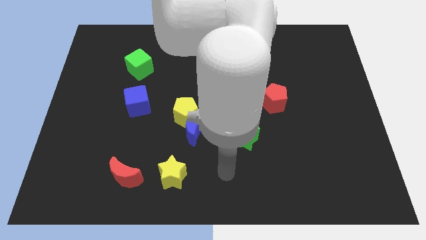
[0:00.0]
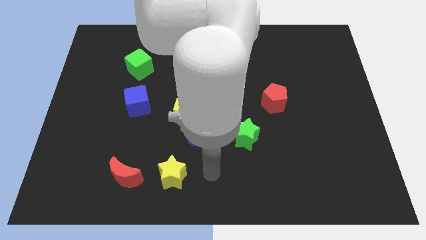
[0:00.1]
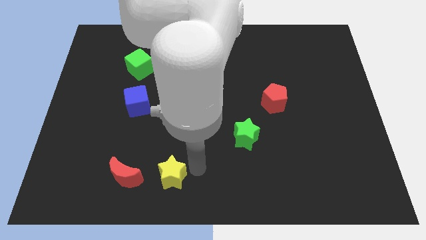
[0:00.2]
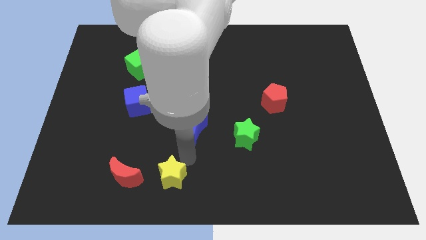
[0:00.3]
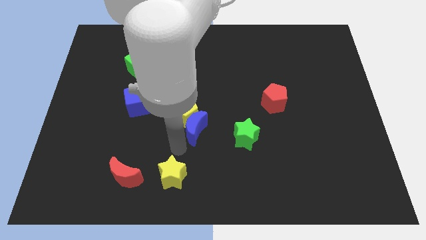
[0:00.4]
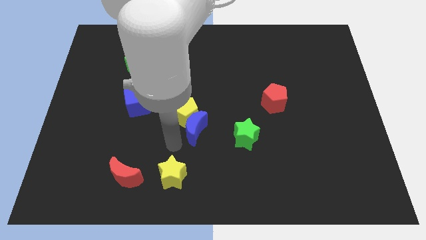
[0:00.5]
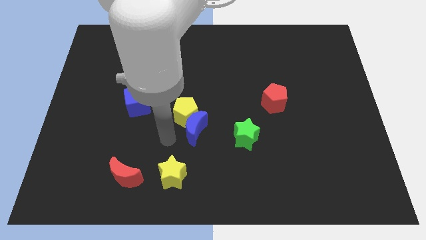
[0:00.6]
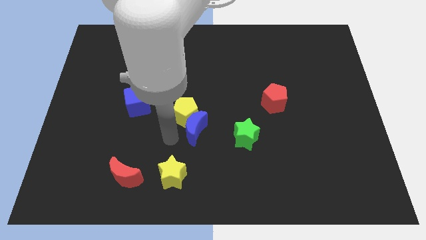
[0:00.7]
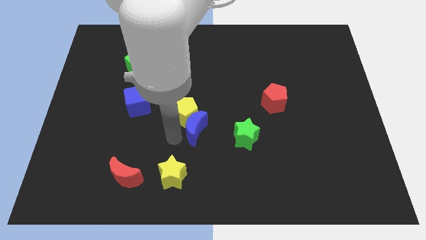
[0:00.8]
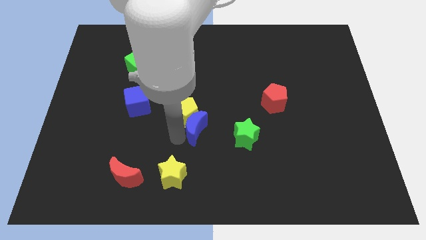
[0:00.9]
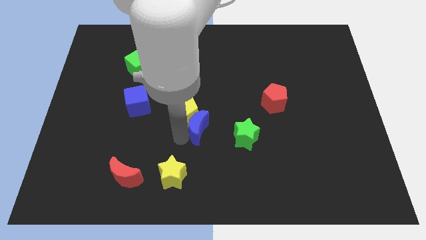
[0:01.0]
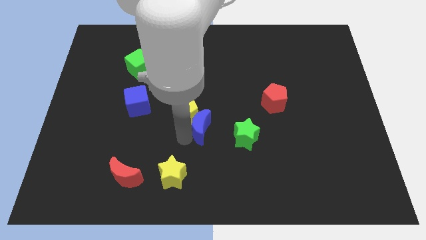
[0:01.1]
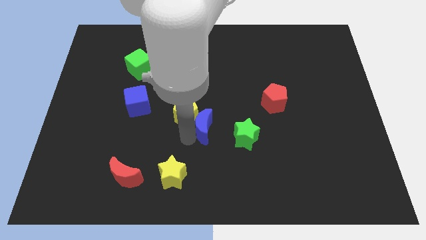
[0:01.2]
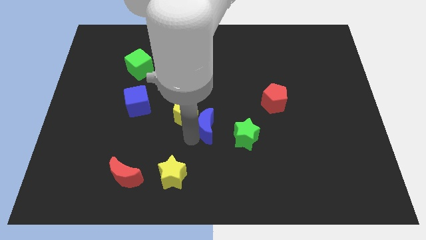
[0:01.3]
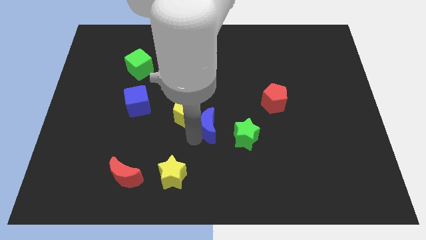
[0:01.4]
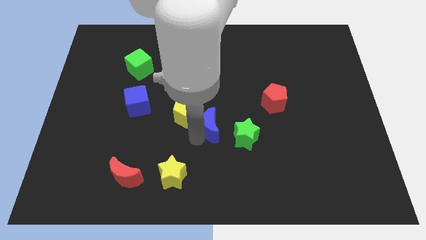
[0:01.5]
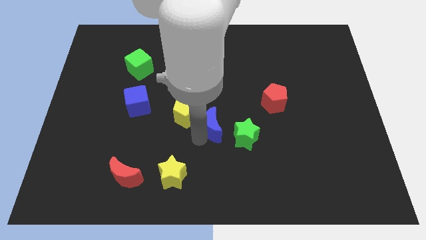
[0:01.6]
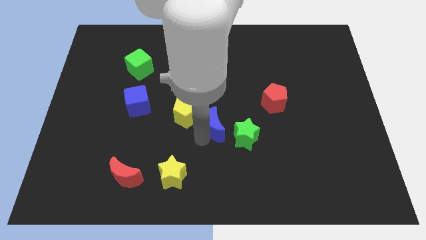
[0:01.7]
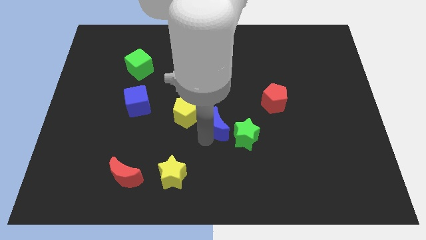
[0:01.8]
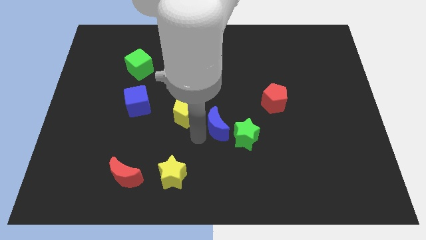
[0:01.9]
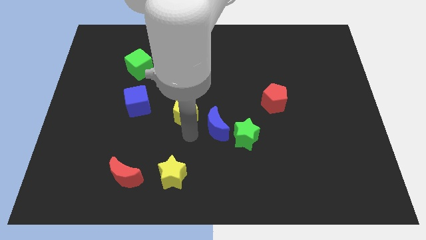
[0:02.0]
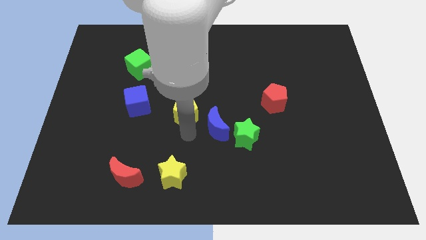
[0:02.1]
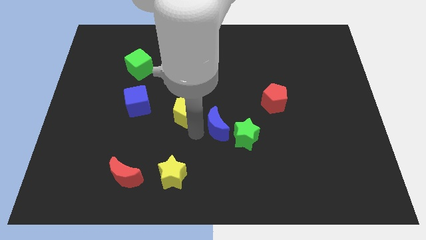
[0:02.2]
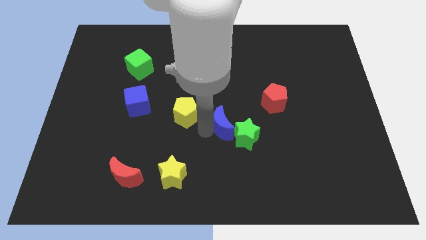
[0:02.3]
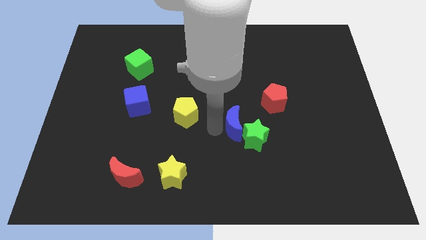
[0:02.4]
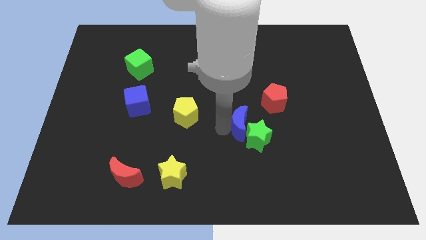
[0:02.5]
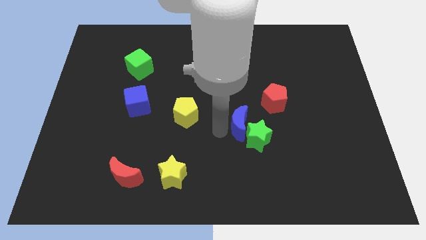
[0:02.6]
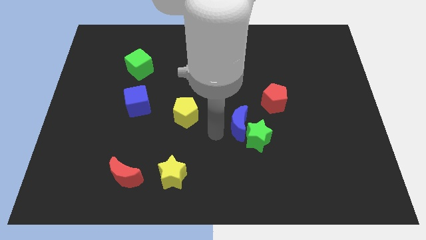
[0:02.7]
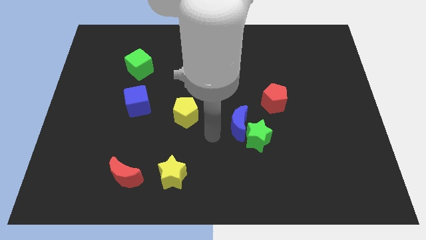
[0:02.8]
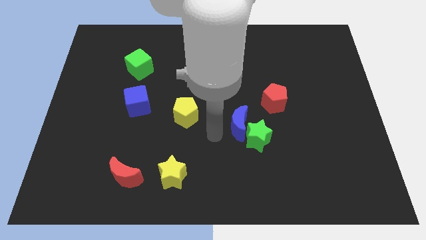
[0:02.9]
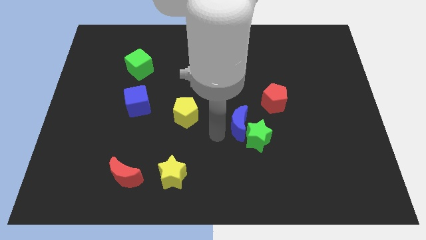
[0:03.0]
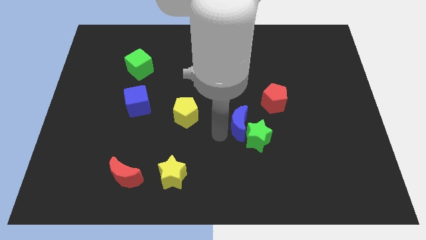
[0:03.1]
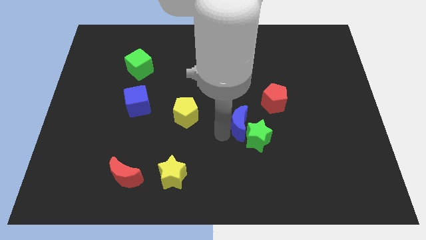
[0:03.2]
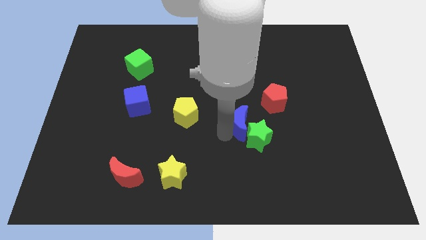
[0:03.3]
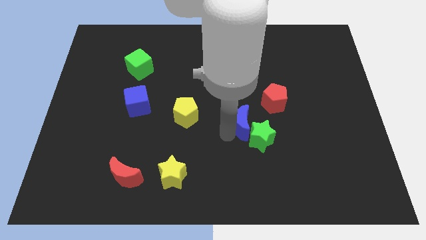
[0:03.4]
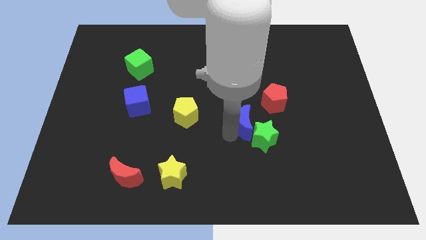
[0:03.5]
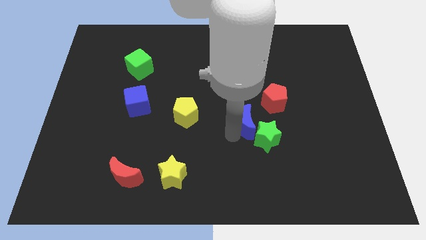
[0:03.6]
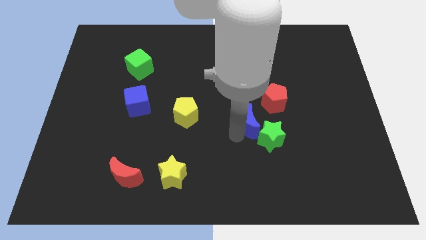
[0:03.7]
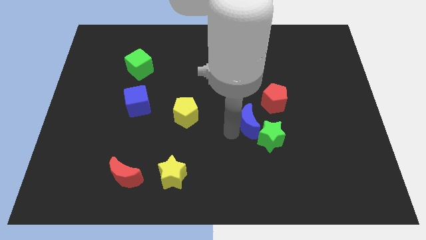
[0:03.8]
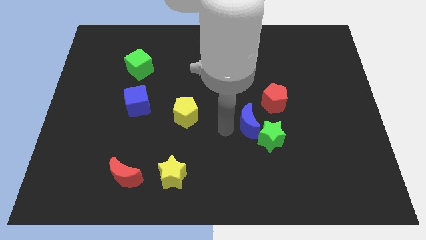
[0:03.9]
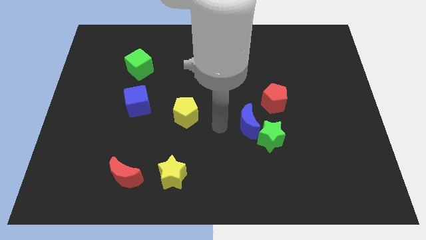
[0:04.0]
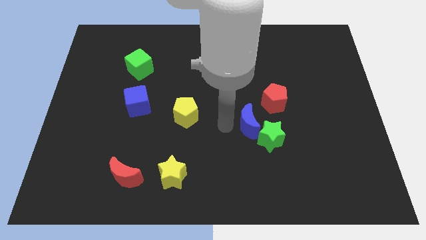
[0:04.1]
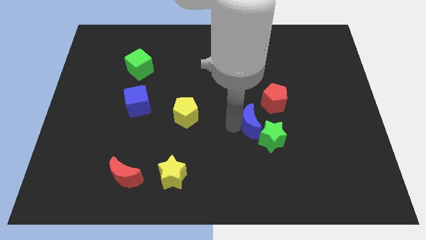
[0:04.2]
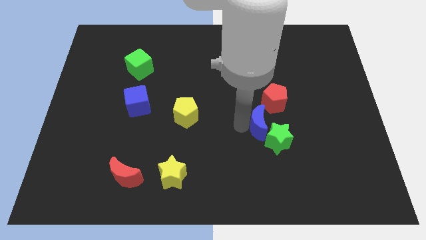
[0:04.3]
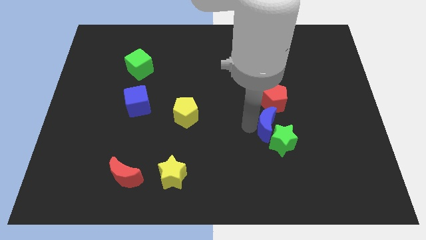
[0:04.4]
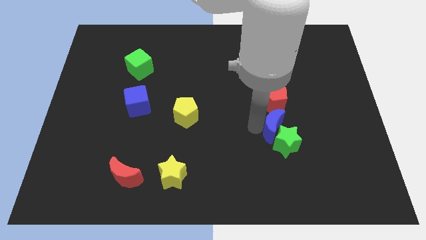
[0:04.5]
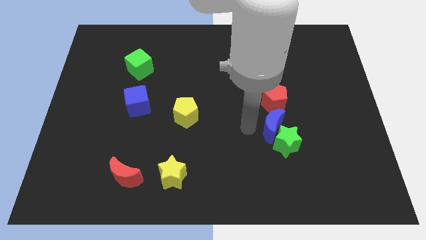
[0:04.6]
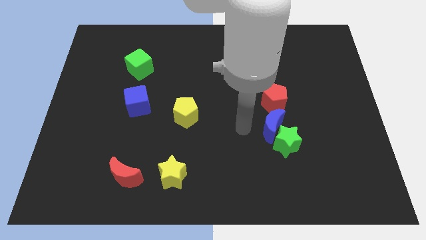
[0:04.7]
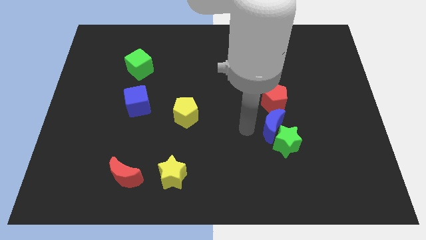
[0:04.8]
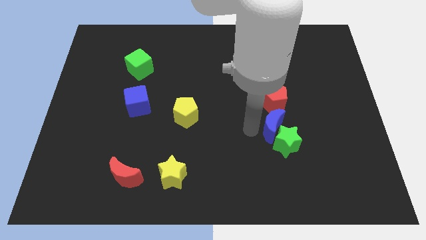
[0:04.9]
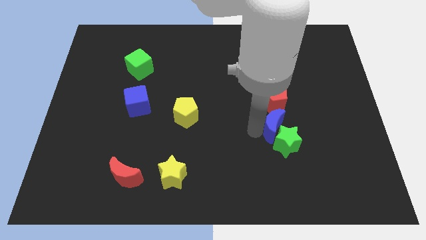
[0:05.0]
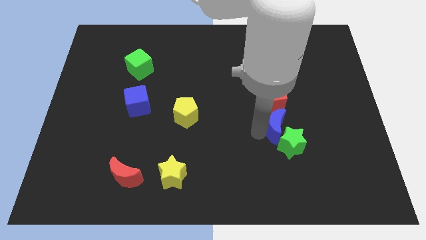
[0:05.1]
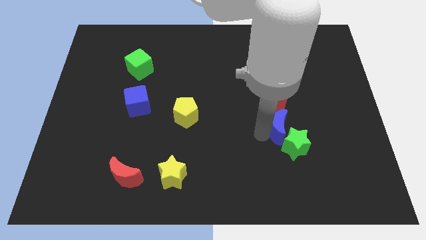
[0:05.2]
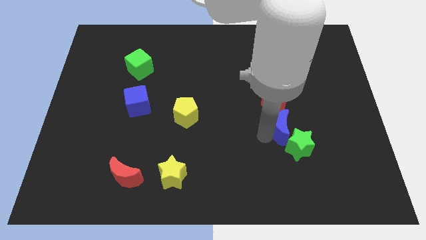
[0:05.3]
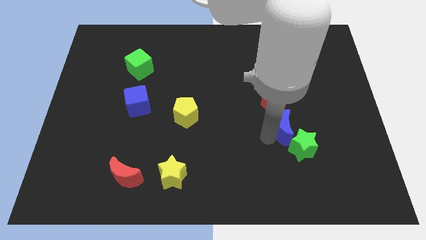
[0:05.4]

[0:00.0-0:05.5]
slide the blue moon to the right

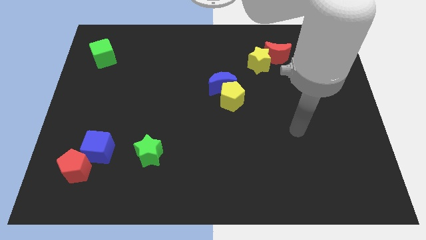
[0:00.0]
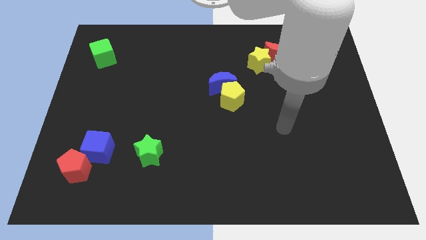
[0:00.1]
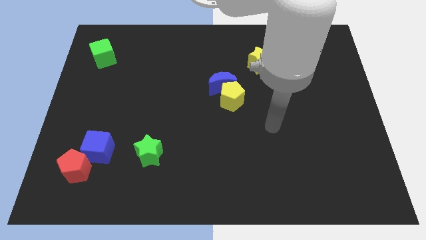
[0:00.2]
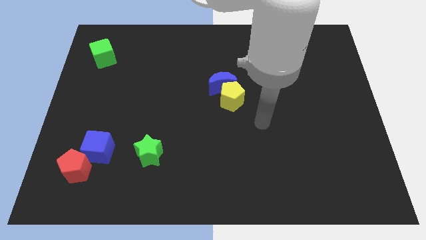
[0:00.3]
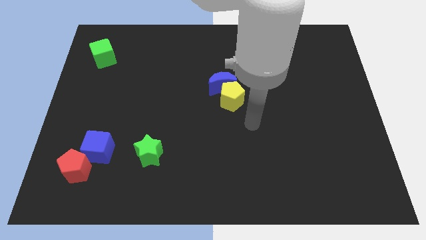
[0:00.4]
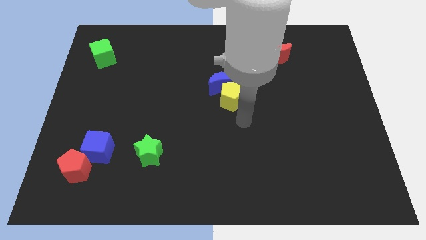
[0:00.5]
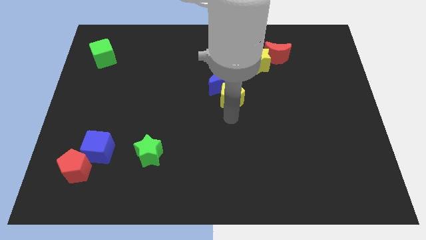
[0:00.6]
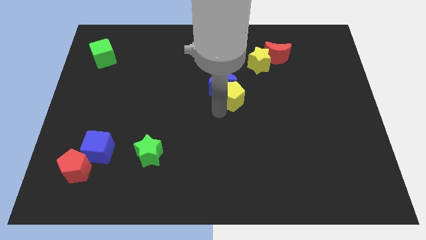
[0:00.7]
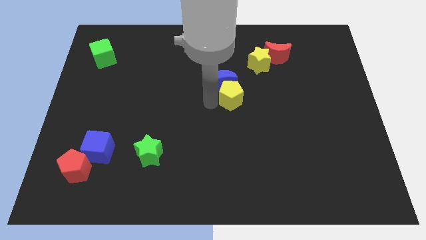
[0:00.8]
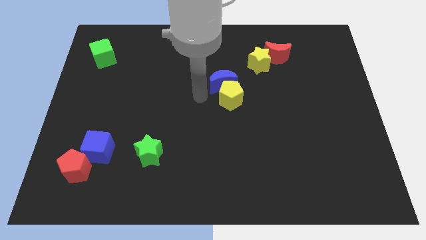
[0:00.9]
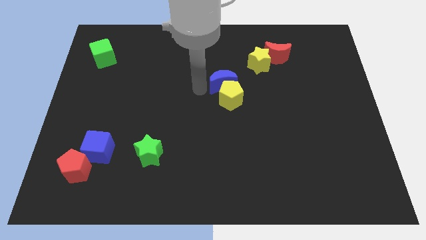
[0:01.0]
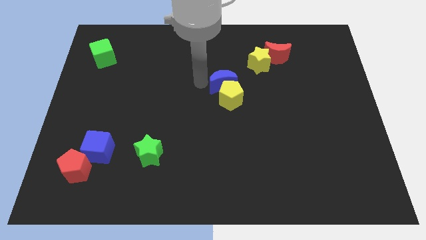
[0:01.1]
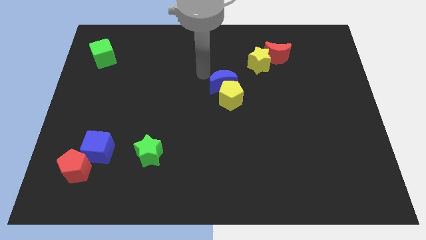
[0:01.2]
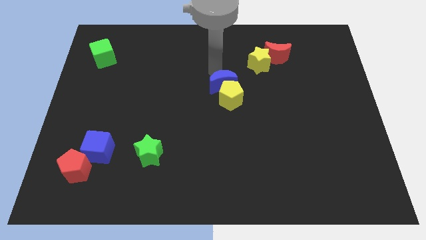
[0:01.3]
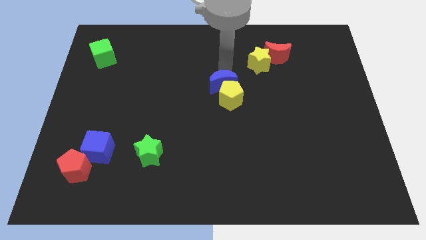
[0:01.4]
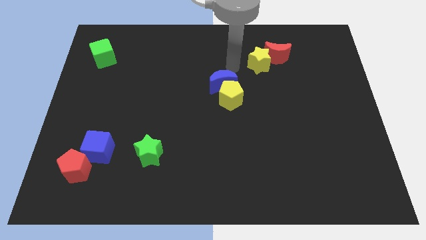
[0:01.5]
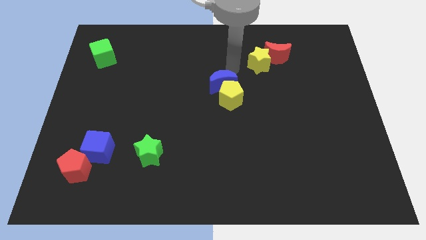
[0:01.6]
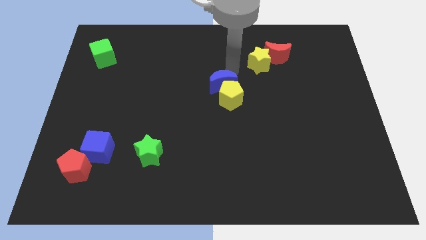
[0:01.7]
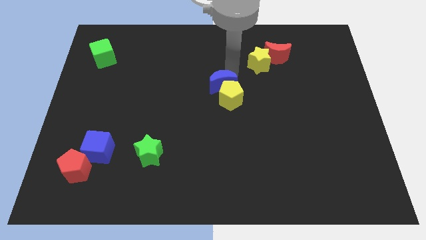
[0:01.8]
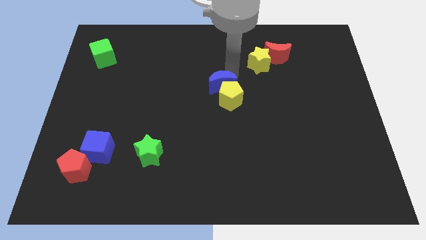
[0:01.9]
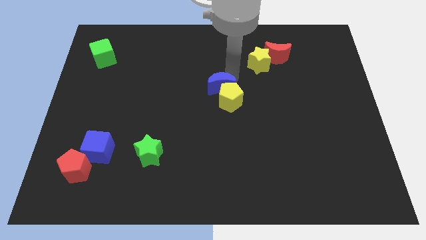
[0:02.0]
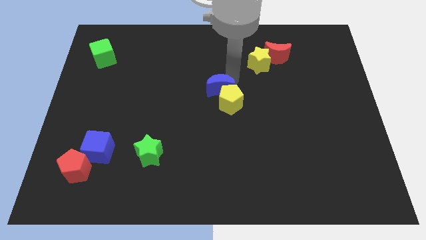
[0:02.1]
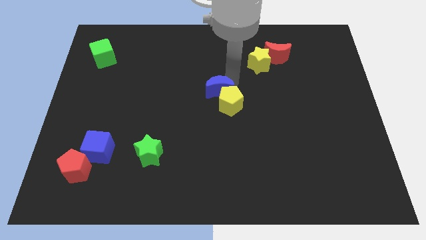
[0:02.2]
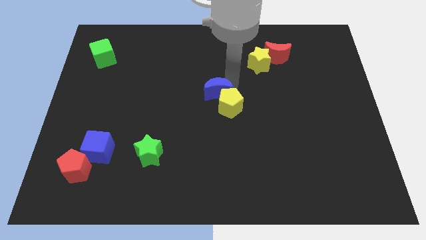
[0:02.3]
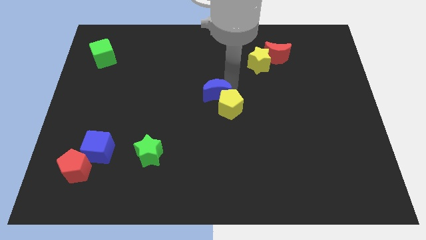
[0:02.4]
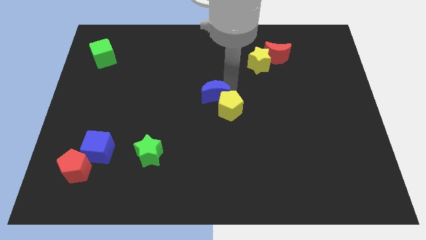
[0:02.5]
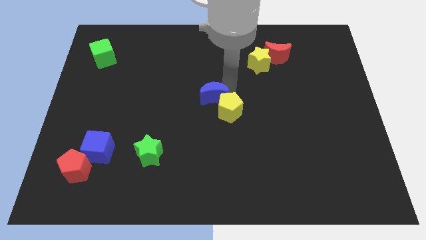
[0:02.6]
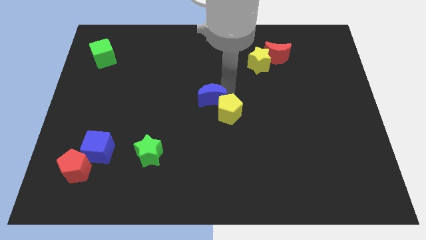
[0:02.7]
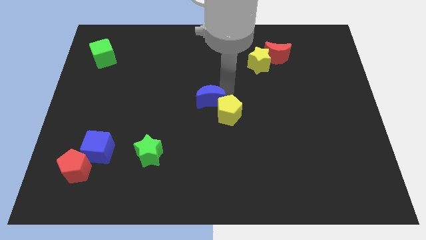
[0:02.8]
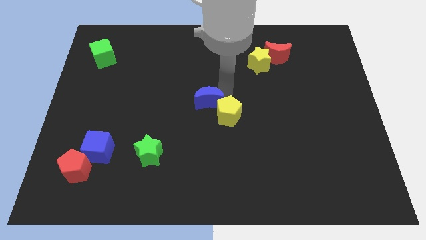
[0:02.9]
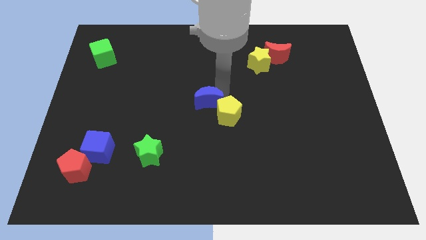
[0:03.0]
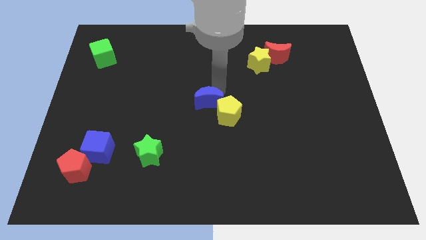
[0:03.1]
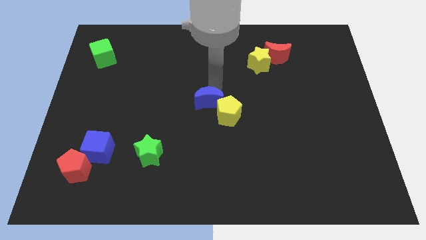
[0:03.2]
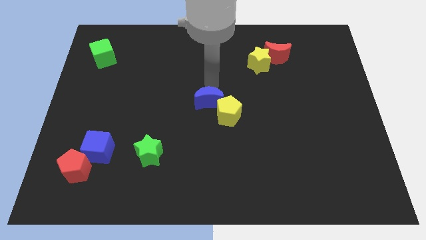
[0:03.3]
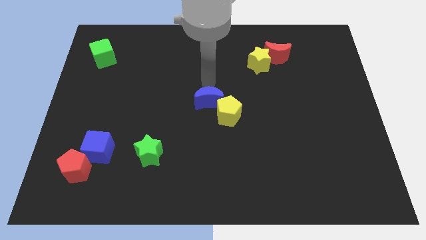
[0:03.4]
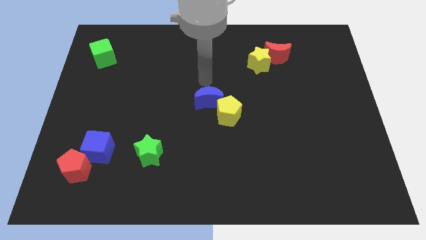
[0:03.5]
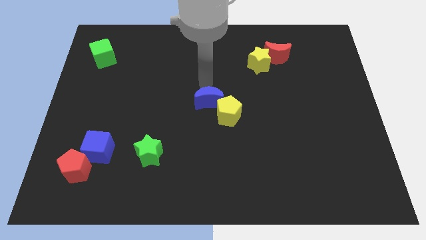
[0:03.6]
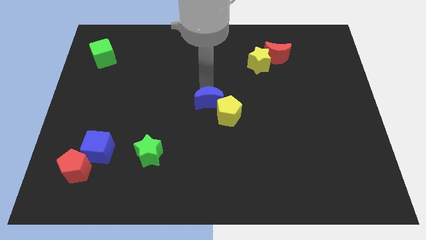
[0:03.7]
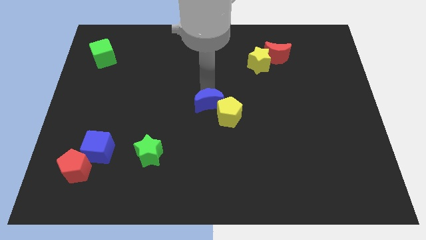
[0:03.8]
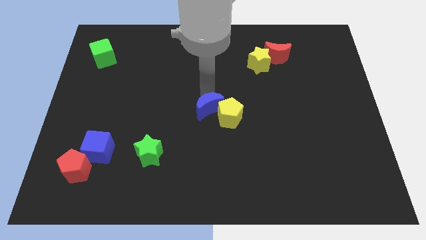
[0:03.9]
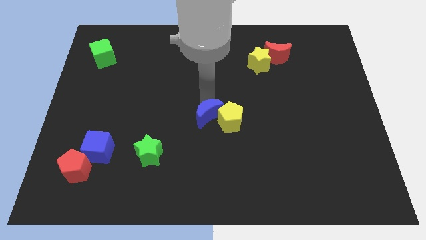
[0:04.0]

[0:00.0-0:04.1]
move the blue moon somewhat downwards
